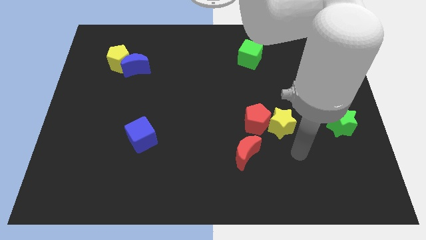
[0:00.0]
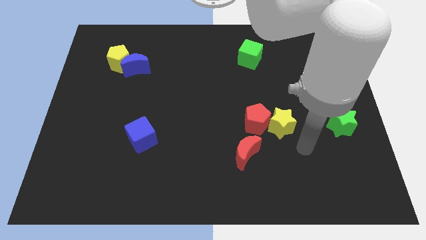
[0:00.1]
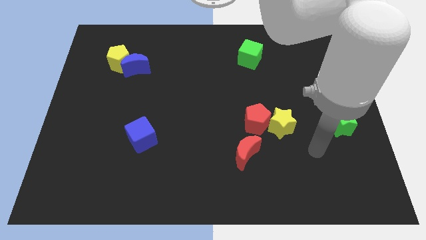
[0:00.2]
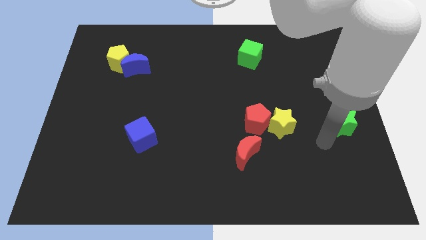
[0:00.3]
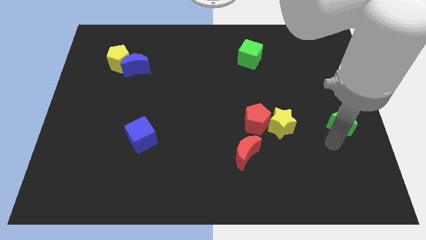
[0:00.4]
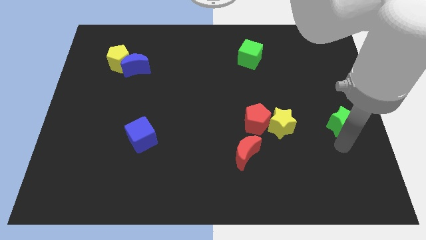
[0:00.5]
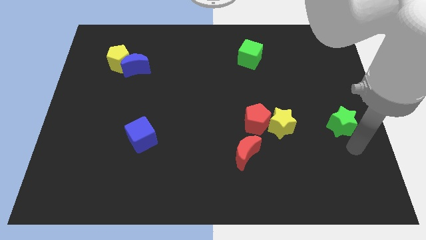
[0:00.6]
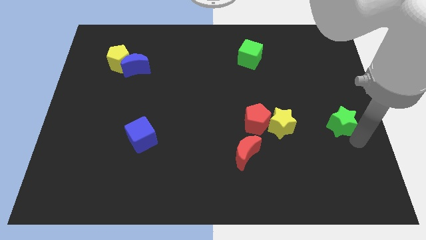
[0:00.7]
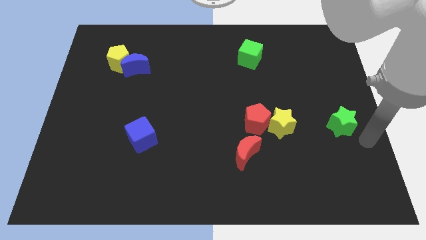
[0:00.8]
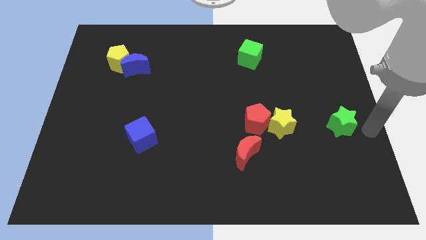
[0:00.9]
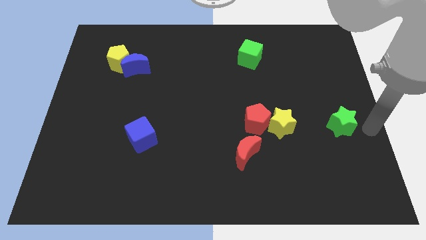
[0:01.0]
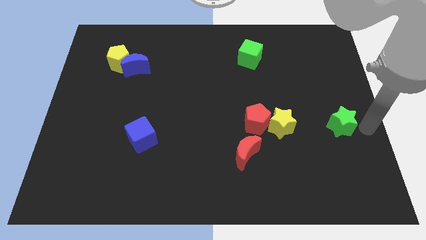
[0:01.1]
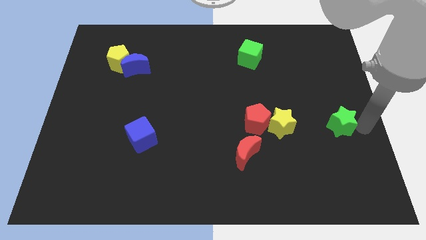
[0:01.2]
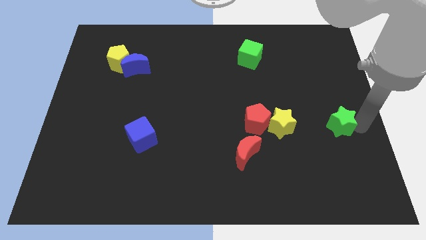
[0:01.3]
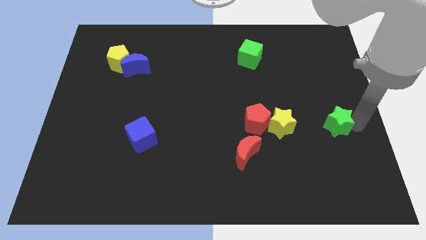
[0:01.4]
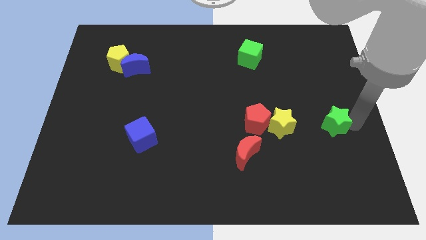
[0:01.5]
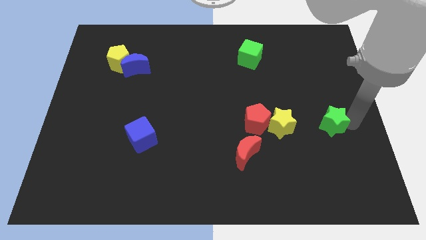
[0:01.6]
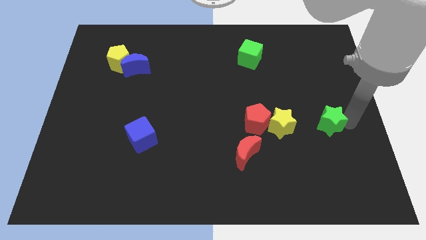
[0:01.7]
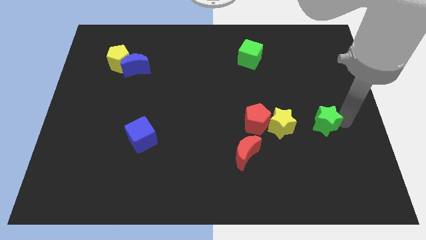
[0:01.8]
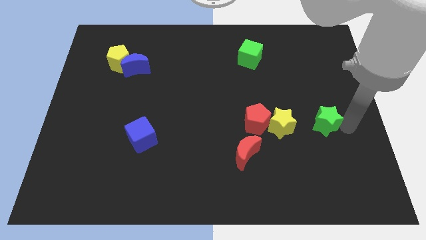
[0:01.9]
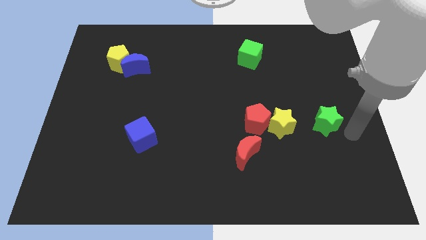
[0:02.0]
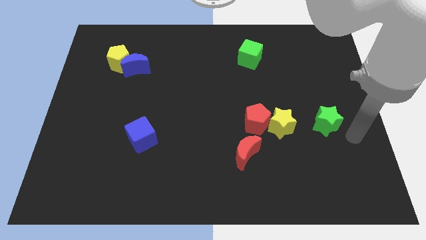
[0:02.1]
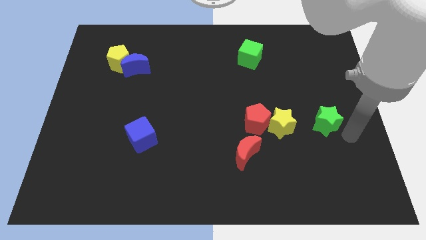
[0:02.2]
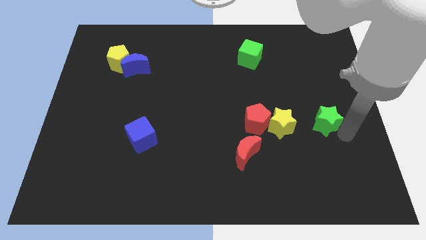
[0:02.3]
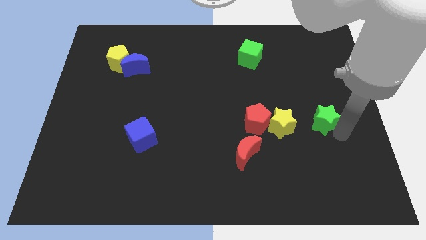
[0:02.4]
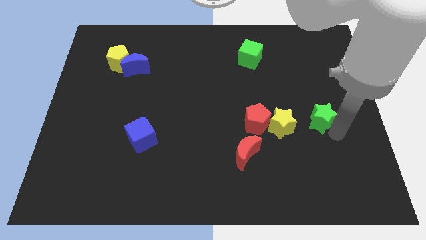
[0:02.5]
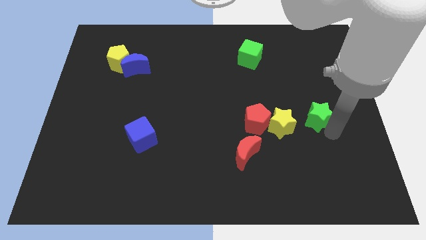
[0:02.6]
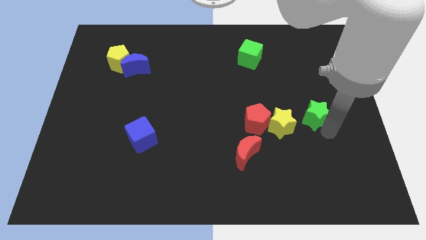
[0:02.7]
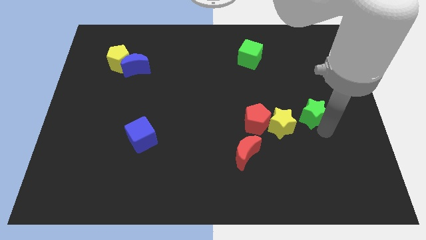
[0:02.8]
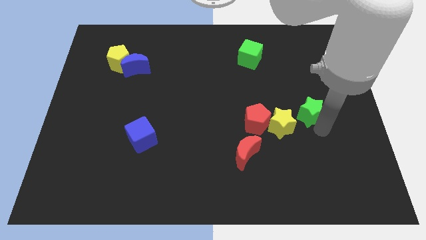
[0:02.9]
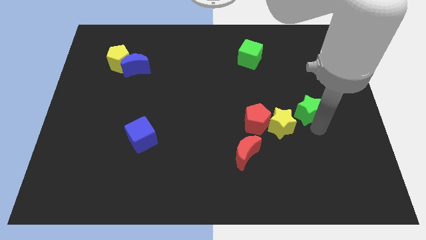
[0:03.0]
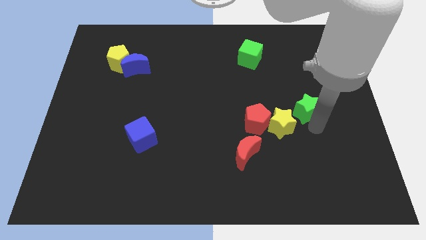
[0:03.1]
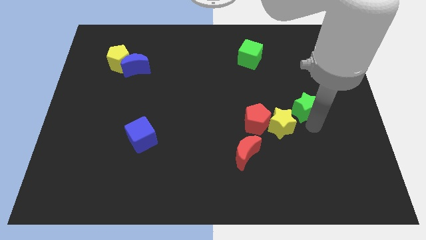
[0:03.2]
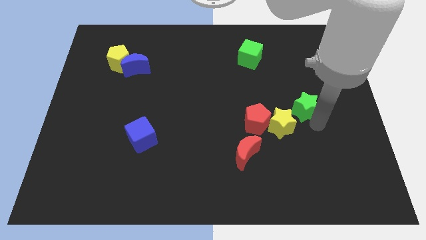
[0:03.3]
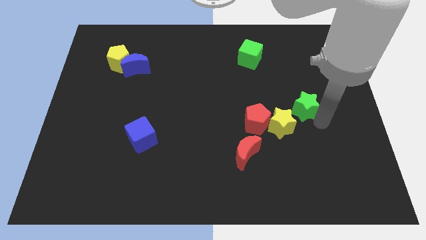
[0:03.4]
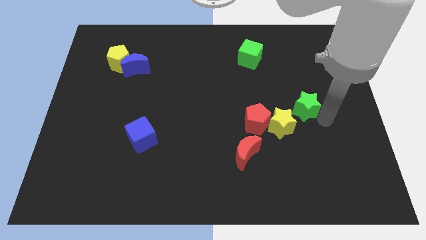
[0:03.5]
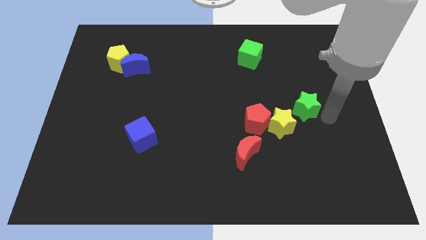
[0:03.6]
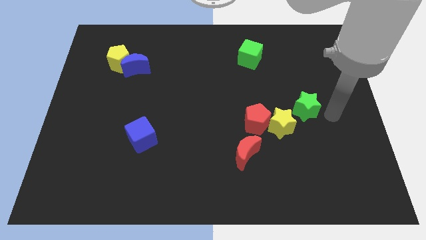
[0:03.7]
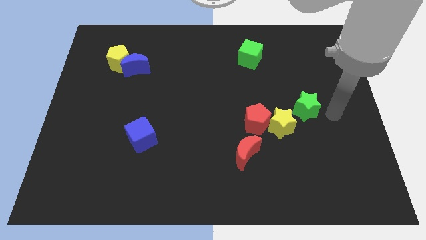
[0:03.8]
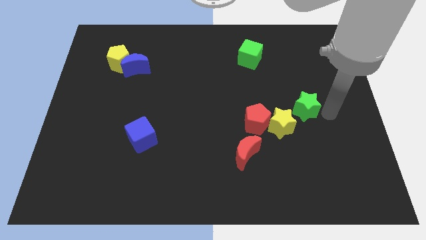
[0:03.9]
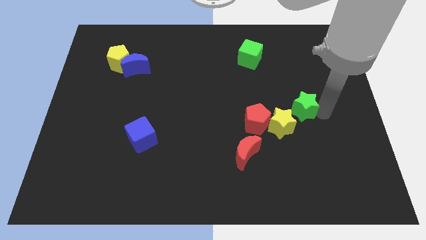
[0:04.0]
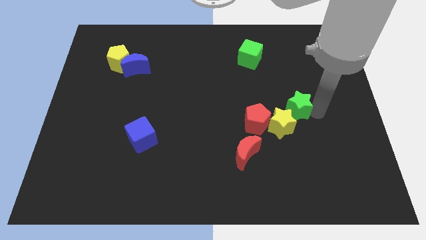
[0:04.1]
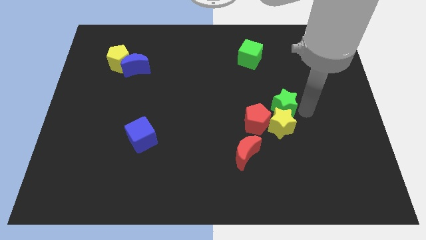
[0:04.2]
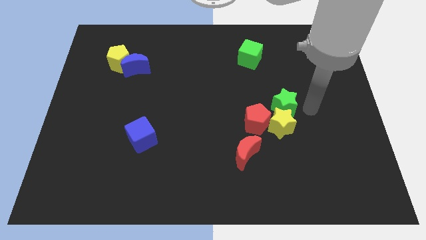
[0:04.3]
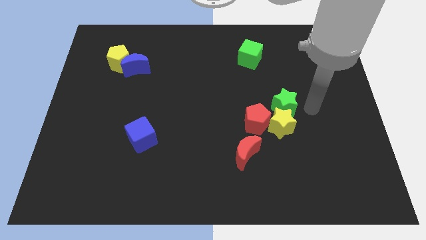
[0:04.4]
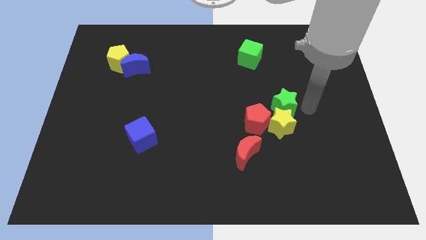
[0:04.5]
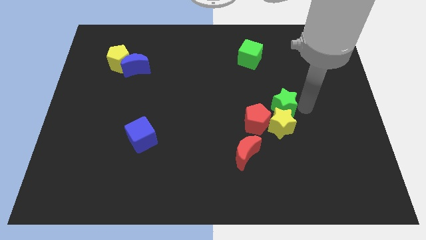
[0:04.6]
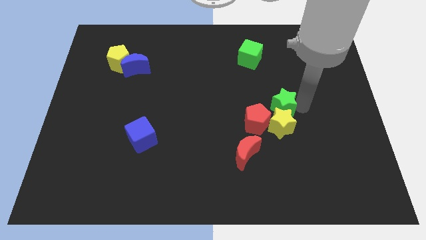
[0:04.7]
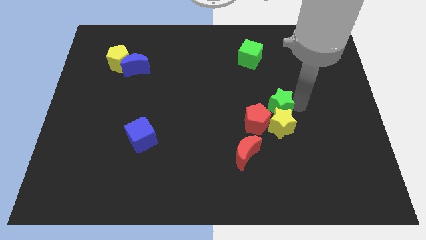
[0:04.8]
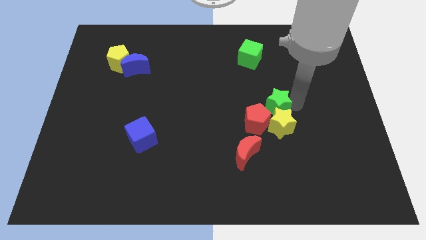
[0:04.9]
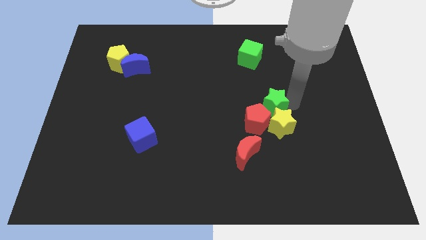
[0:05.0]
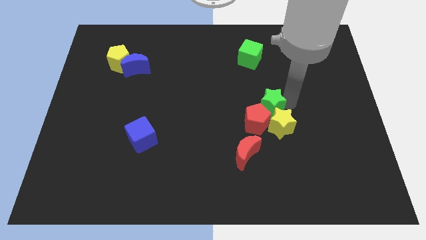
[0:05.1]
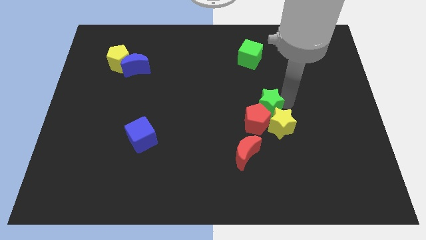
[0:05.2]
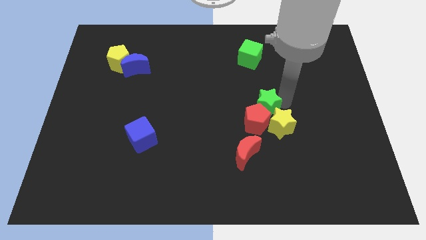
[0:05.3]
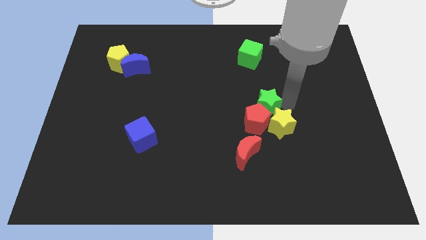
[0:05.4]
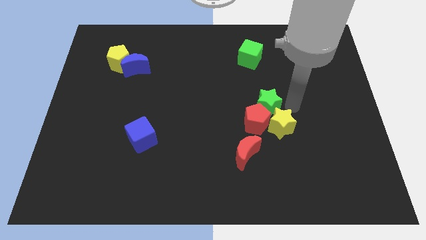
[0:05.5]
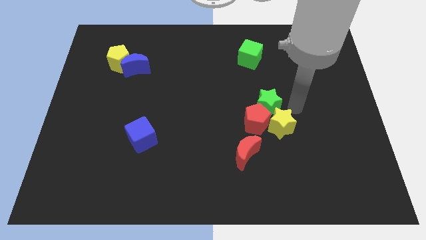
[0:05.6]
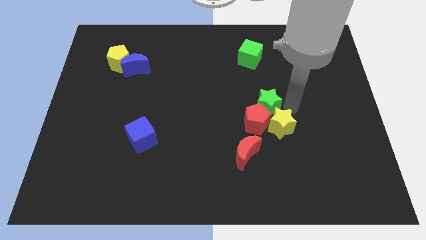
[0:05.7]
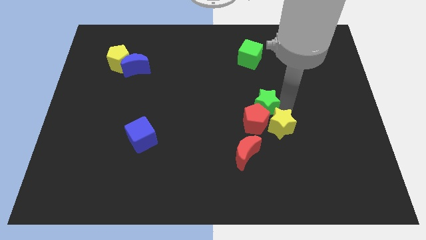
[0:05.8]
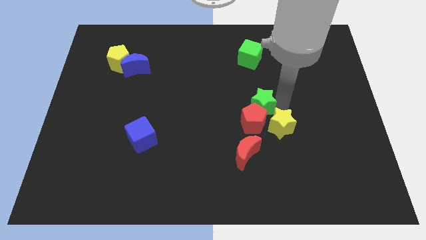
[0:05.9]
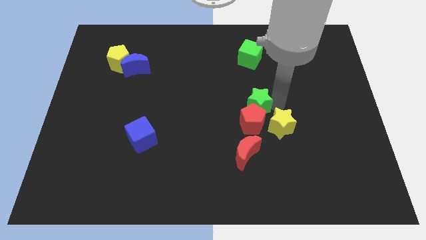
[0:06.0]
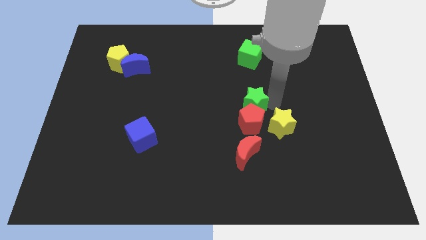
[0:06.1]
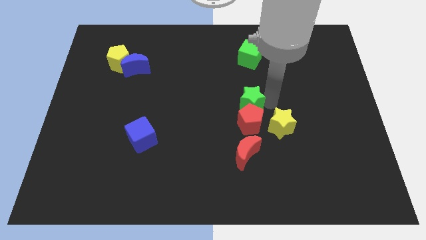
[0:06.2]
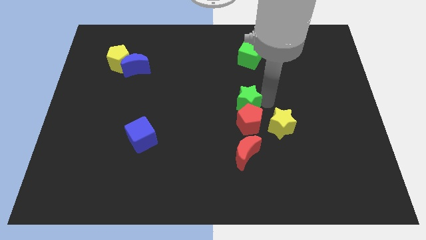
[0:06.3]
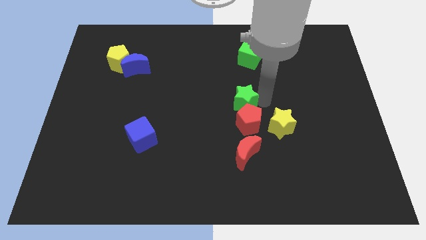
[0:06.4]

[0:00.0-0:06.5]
push the green star left

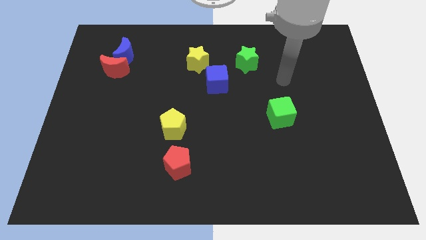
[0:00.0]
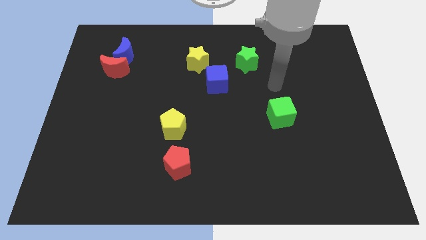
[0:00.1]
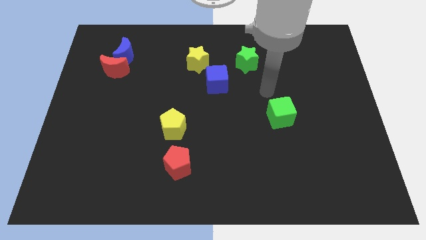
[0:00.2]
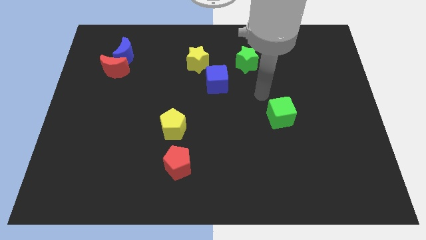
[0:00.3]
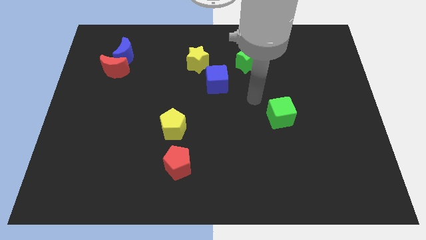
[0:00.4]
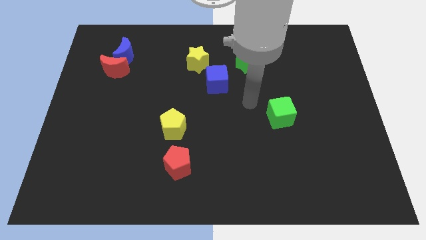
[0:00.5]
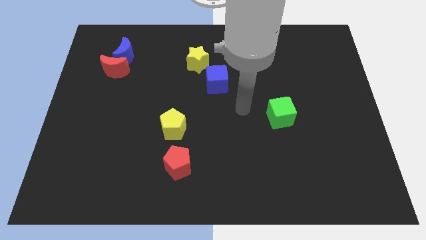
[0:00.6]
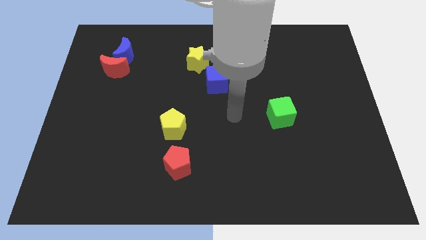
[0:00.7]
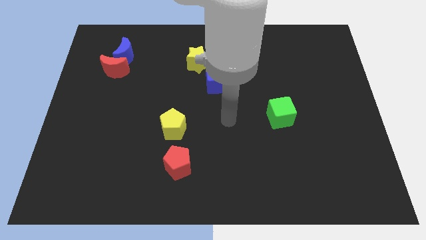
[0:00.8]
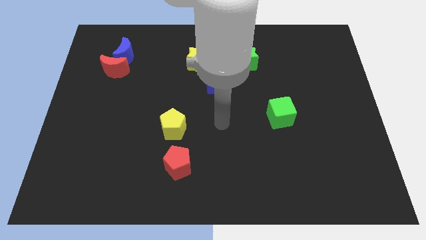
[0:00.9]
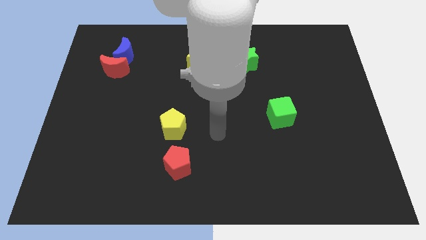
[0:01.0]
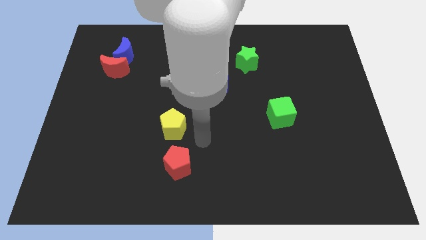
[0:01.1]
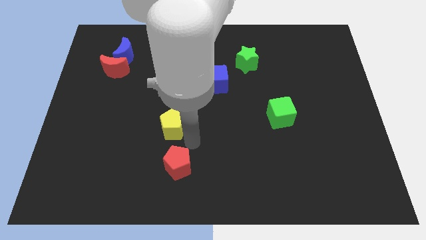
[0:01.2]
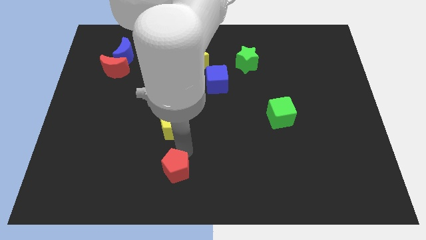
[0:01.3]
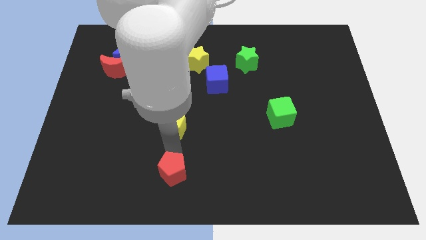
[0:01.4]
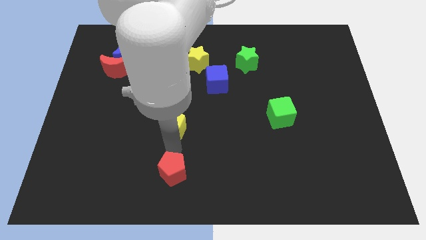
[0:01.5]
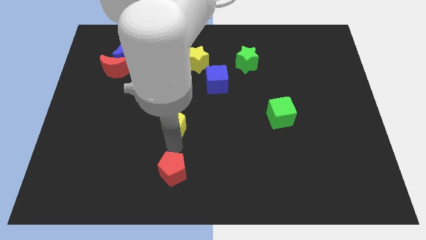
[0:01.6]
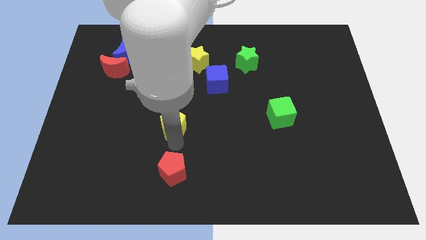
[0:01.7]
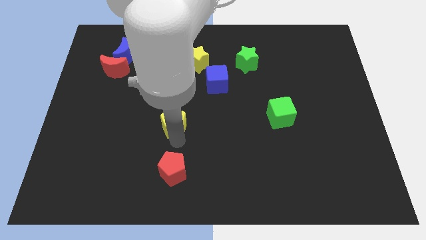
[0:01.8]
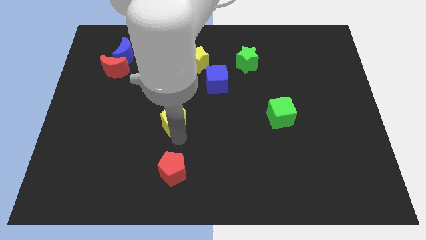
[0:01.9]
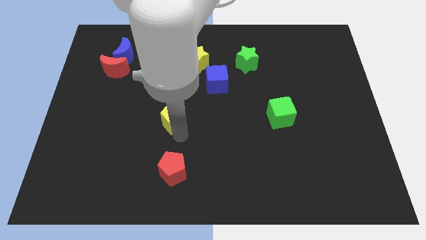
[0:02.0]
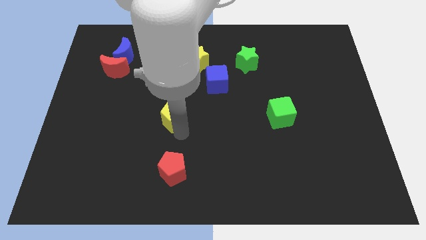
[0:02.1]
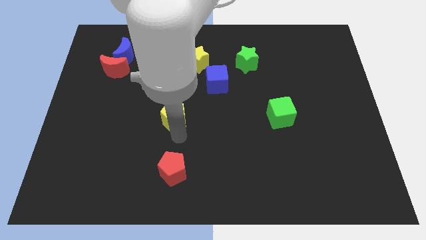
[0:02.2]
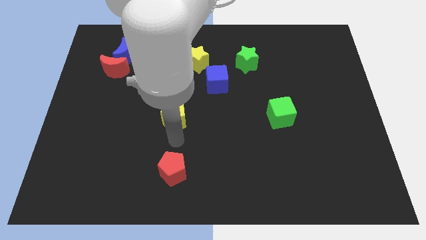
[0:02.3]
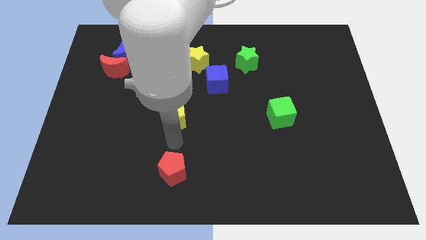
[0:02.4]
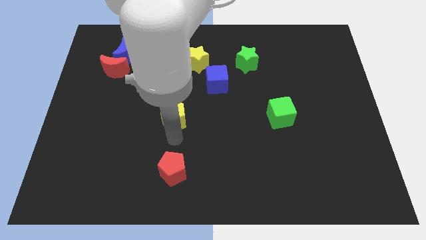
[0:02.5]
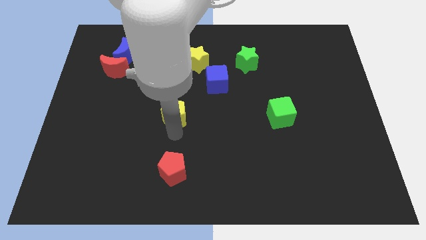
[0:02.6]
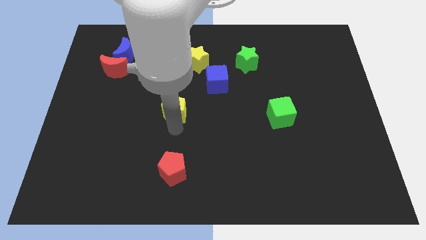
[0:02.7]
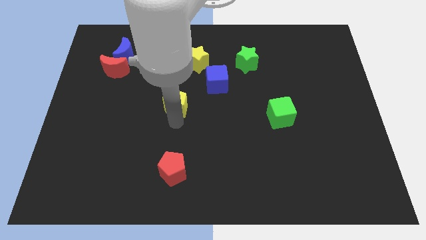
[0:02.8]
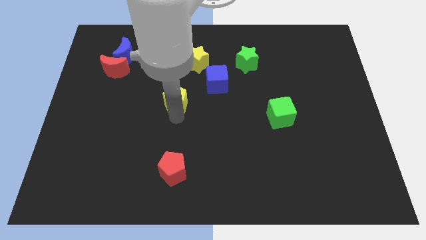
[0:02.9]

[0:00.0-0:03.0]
slightly push the yellow pentagon upwards
